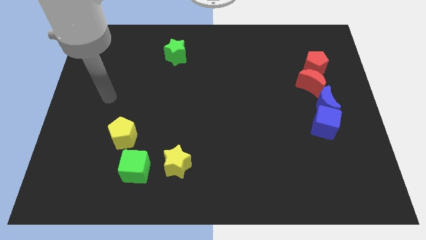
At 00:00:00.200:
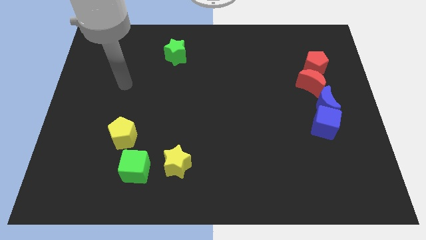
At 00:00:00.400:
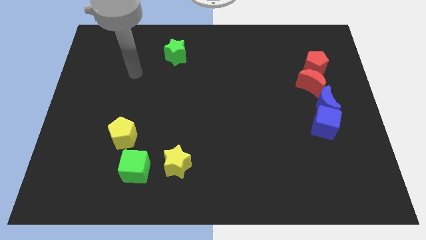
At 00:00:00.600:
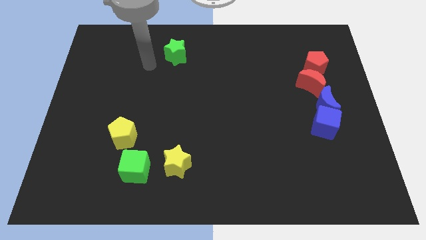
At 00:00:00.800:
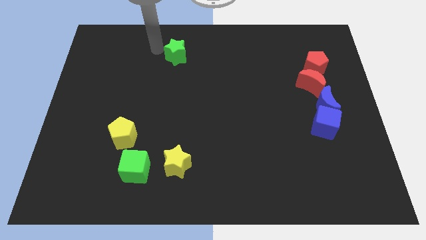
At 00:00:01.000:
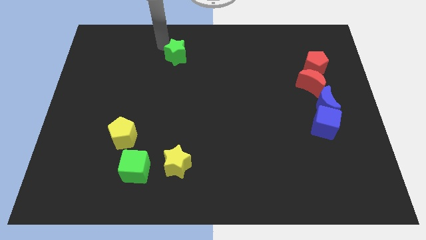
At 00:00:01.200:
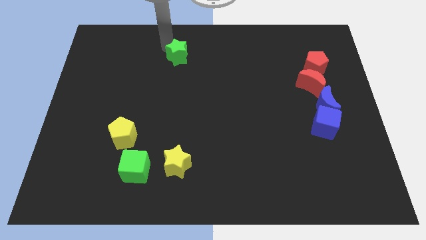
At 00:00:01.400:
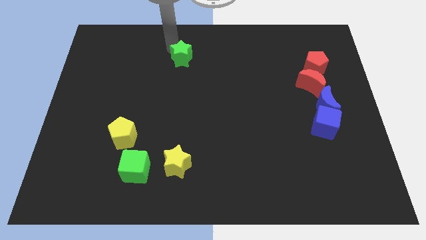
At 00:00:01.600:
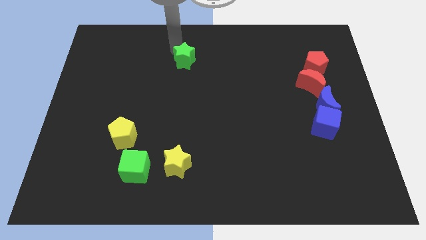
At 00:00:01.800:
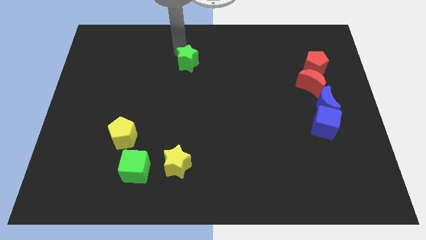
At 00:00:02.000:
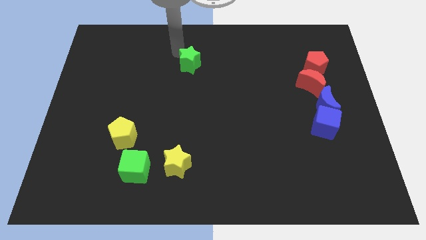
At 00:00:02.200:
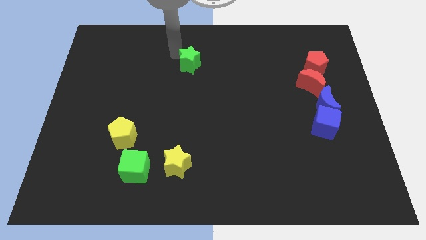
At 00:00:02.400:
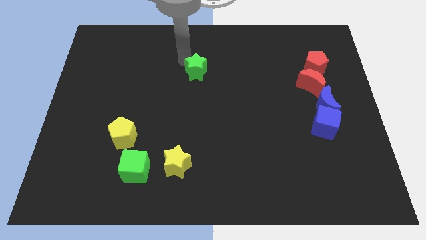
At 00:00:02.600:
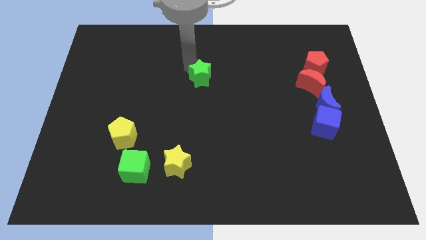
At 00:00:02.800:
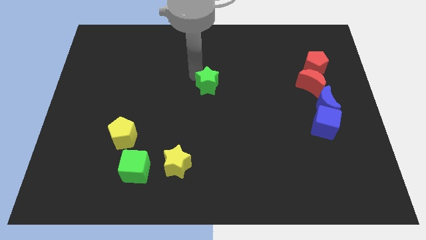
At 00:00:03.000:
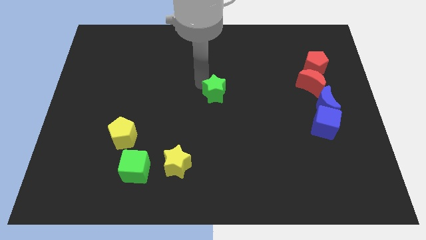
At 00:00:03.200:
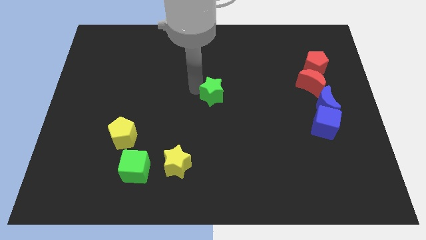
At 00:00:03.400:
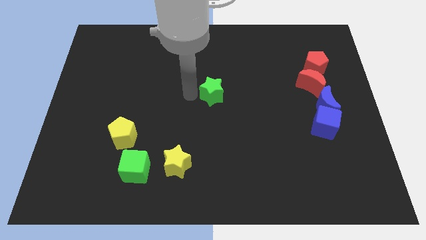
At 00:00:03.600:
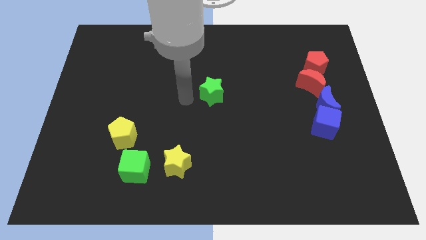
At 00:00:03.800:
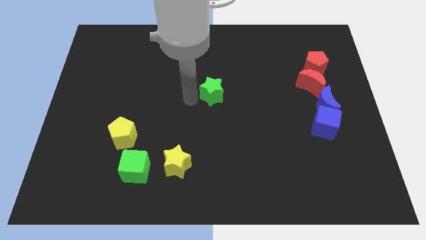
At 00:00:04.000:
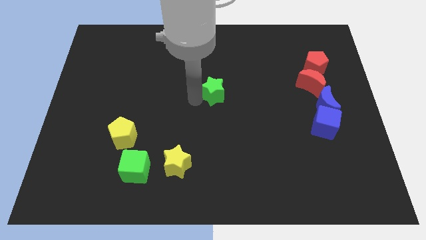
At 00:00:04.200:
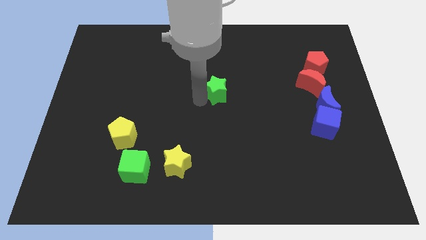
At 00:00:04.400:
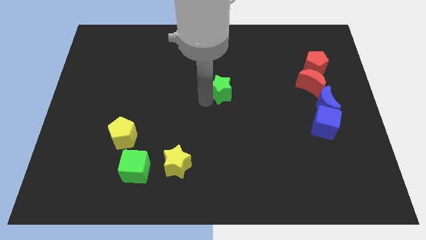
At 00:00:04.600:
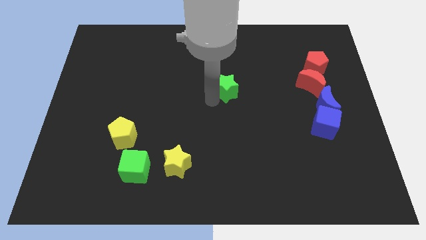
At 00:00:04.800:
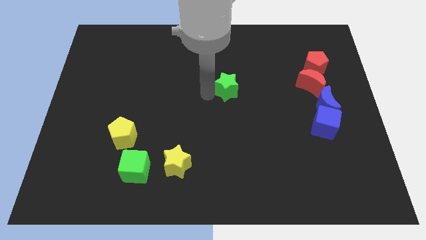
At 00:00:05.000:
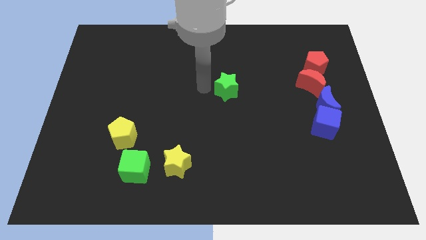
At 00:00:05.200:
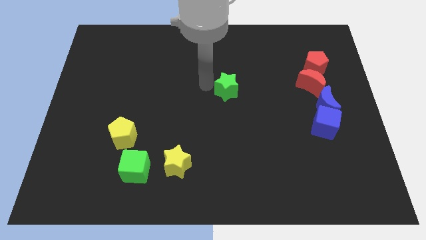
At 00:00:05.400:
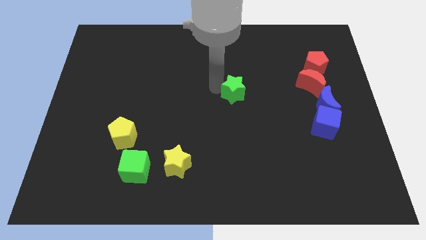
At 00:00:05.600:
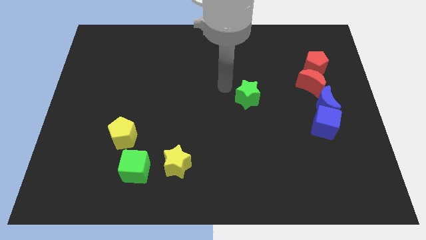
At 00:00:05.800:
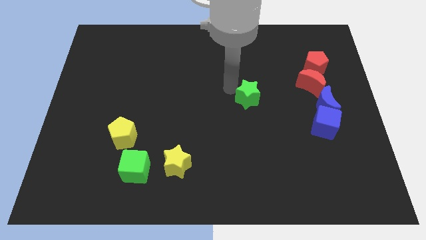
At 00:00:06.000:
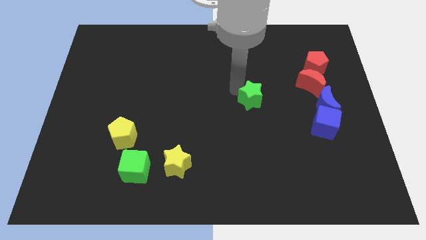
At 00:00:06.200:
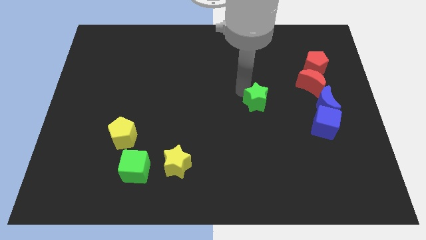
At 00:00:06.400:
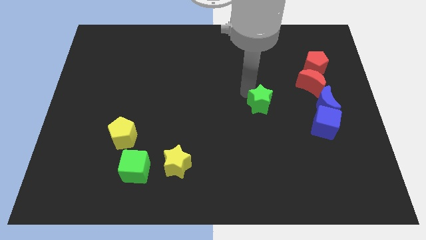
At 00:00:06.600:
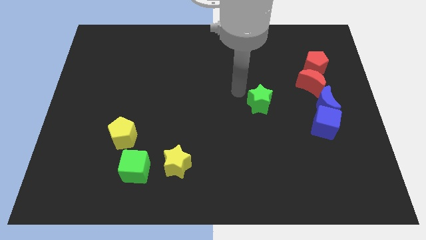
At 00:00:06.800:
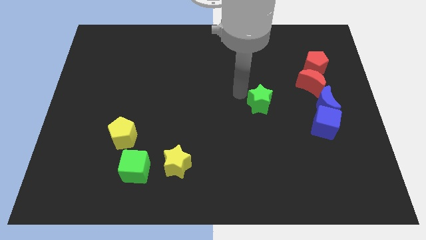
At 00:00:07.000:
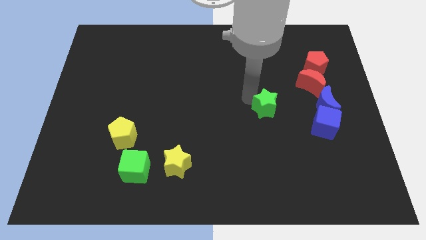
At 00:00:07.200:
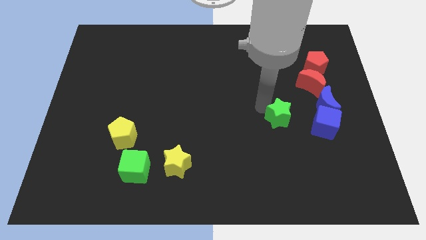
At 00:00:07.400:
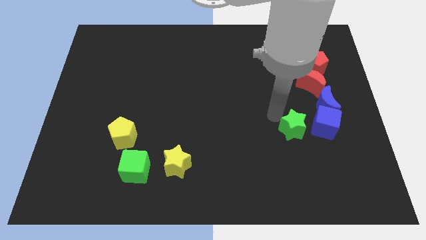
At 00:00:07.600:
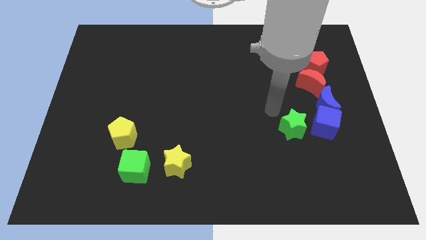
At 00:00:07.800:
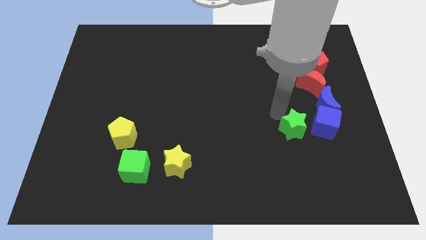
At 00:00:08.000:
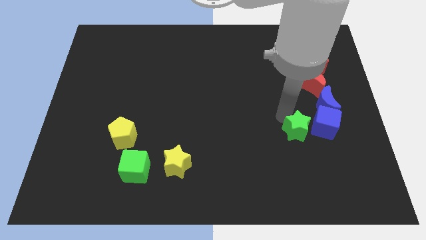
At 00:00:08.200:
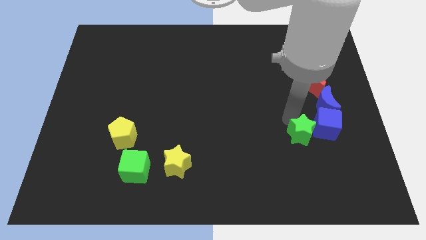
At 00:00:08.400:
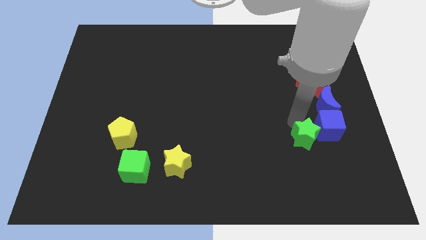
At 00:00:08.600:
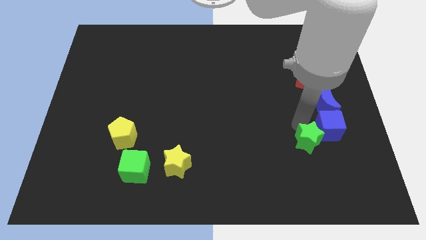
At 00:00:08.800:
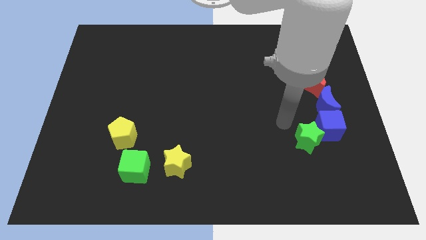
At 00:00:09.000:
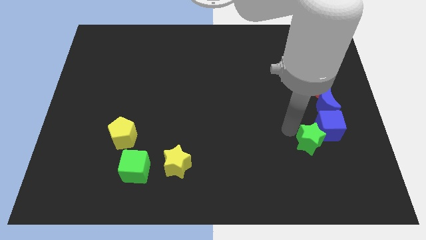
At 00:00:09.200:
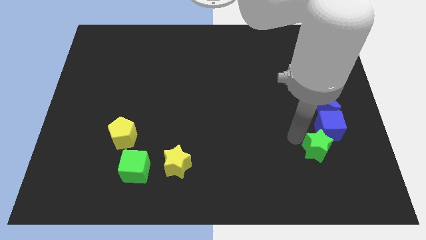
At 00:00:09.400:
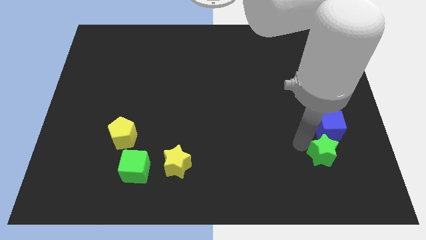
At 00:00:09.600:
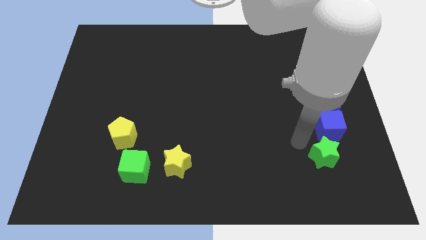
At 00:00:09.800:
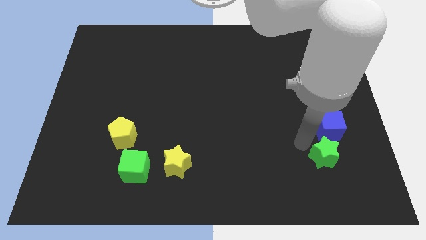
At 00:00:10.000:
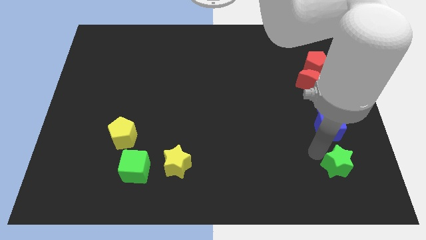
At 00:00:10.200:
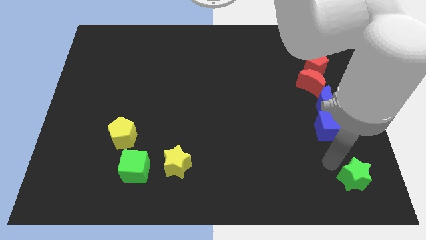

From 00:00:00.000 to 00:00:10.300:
put the green star to the lower right corner

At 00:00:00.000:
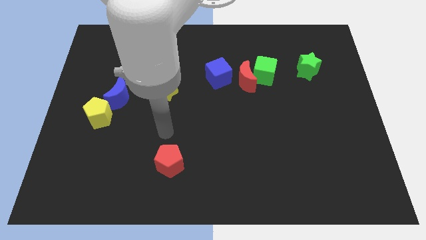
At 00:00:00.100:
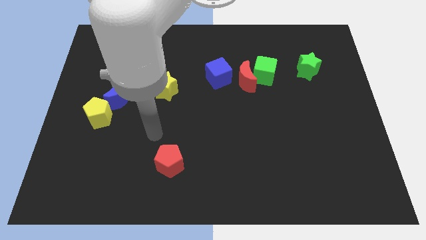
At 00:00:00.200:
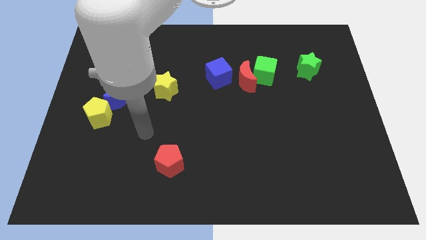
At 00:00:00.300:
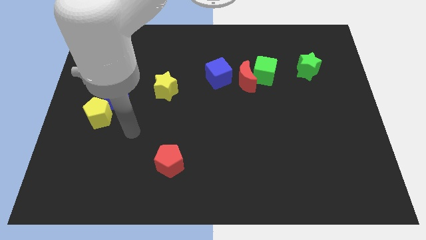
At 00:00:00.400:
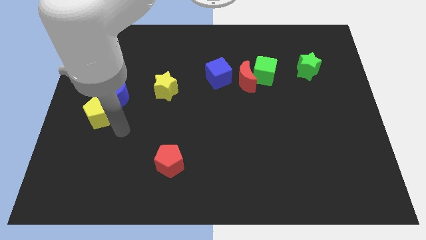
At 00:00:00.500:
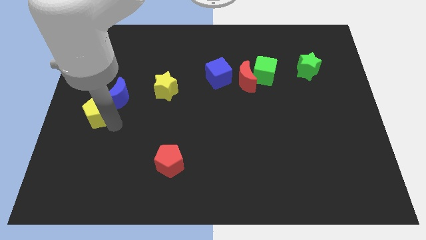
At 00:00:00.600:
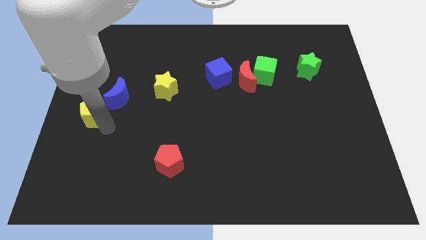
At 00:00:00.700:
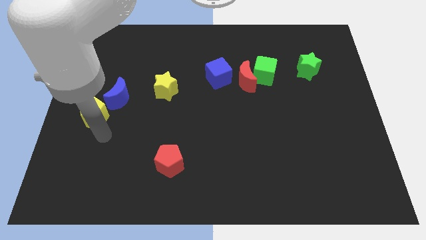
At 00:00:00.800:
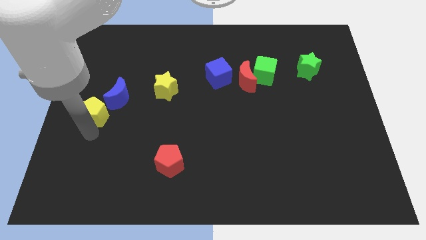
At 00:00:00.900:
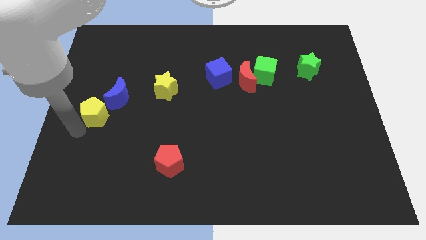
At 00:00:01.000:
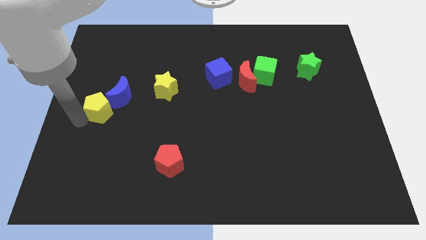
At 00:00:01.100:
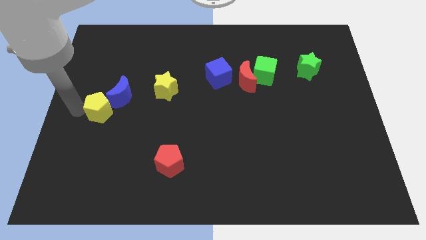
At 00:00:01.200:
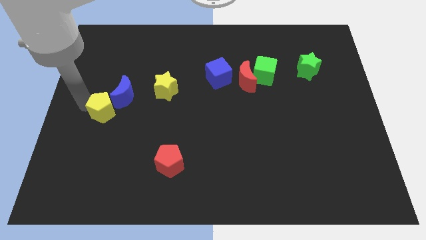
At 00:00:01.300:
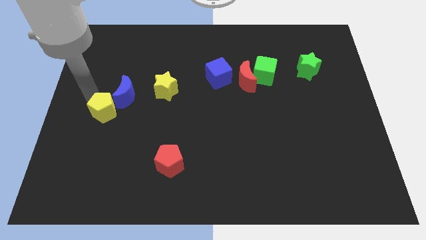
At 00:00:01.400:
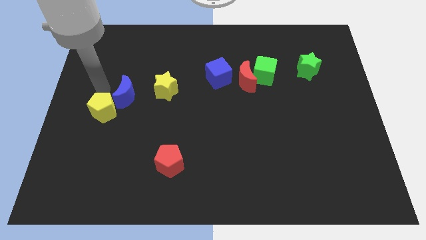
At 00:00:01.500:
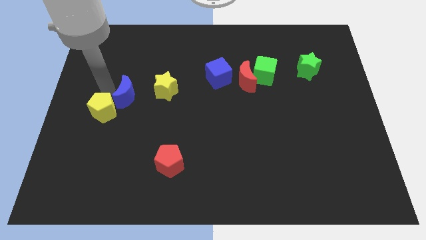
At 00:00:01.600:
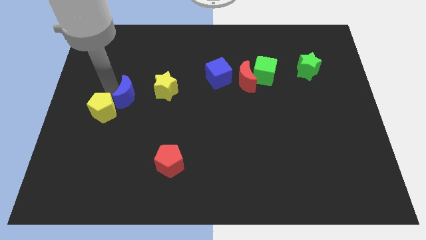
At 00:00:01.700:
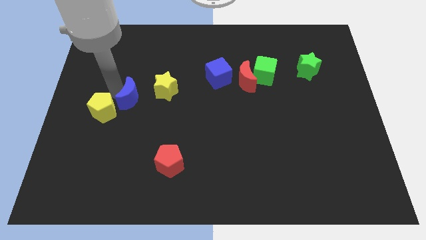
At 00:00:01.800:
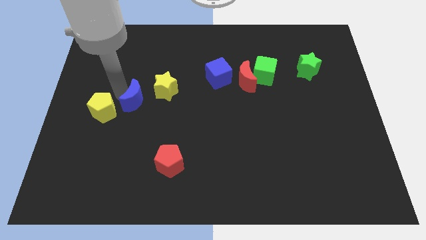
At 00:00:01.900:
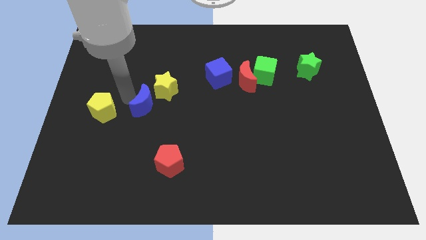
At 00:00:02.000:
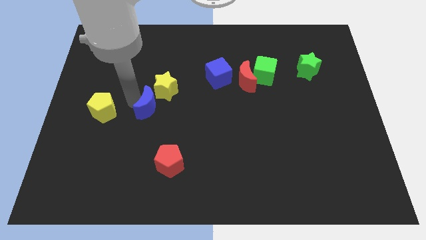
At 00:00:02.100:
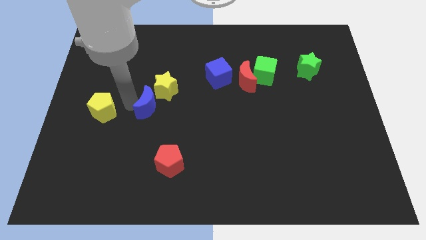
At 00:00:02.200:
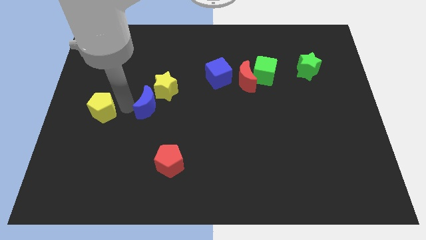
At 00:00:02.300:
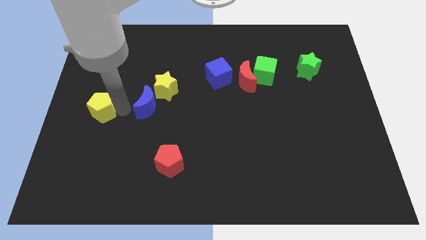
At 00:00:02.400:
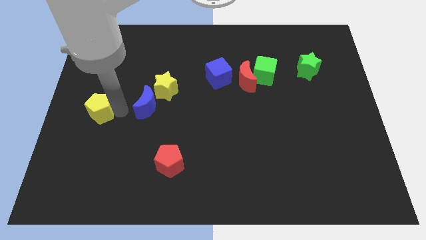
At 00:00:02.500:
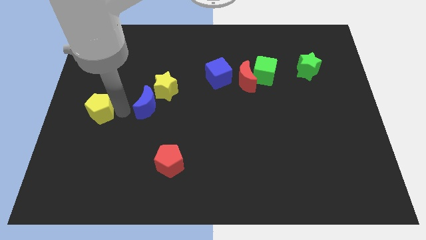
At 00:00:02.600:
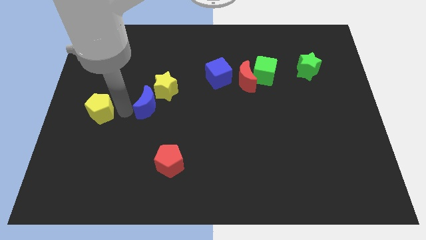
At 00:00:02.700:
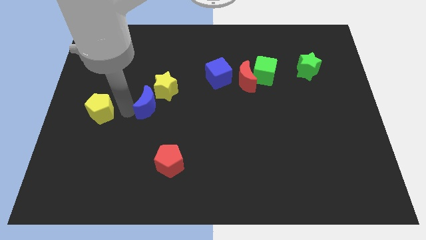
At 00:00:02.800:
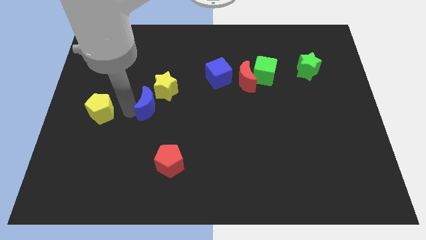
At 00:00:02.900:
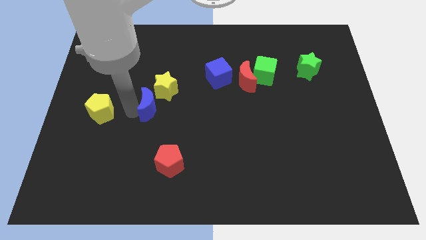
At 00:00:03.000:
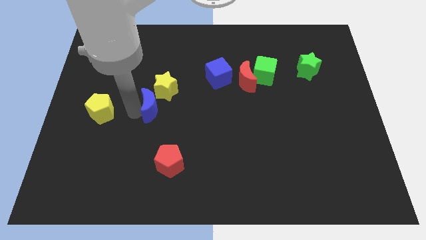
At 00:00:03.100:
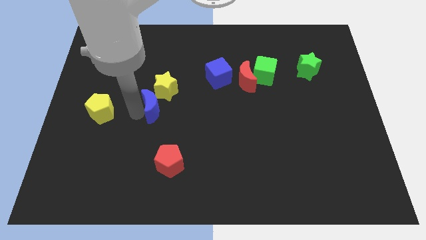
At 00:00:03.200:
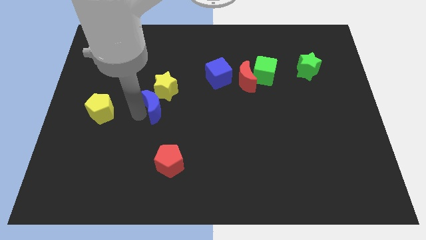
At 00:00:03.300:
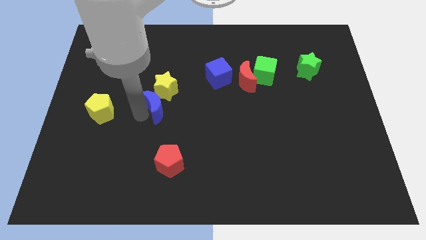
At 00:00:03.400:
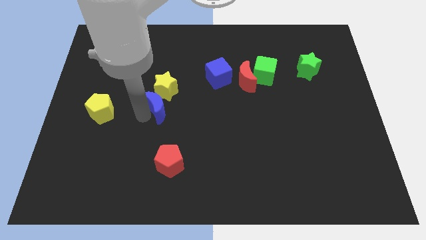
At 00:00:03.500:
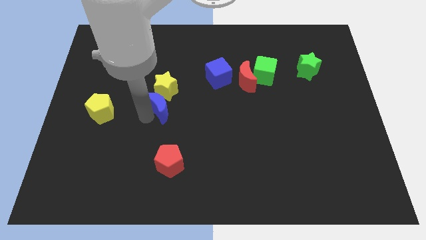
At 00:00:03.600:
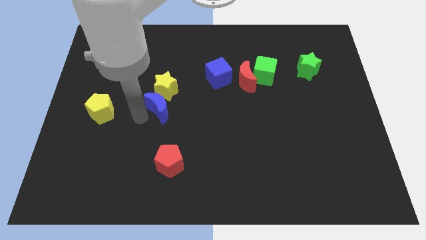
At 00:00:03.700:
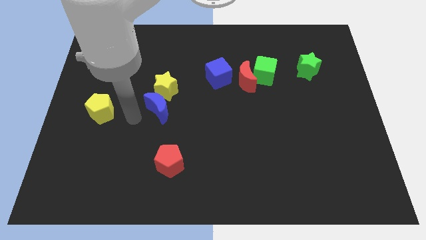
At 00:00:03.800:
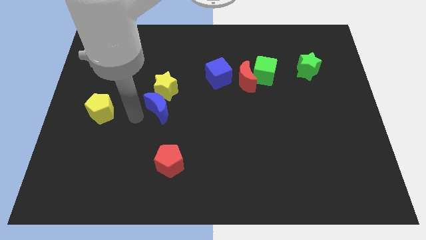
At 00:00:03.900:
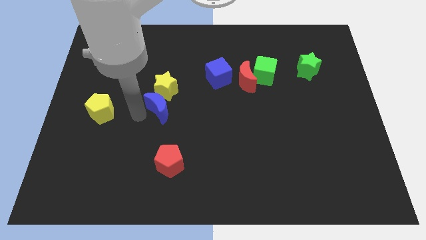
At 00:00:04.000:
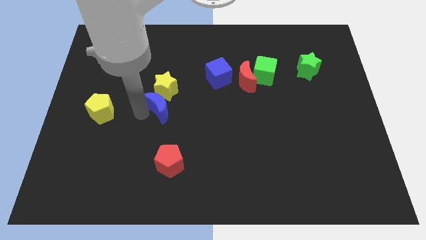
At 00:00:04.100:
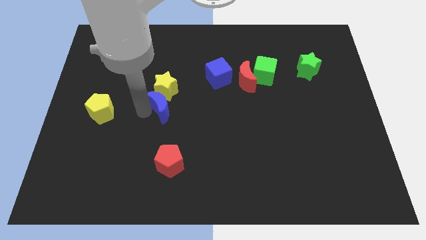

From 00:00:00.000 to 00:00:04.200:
move the blue moon to the center of the board
